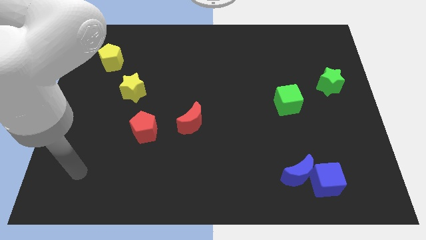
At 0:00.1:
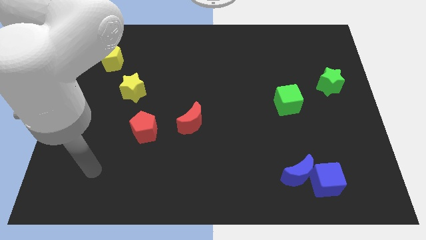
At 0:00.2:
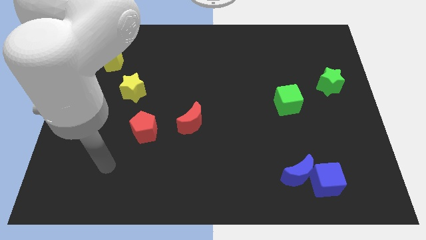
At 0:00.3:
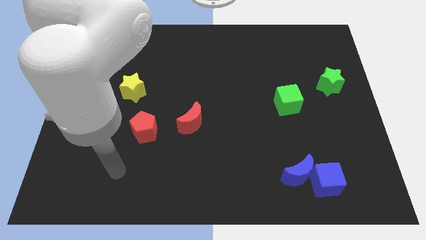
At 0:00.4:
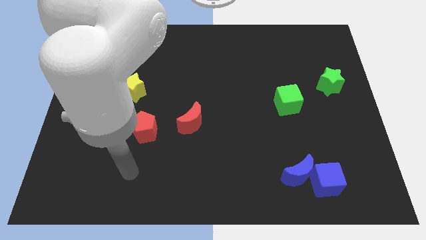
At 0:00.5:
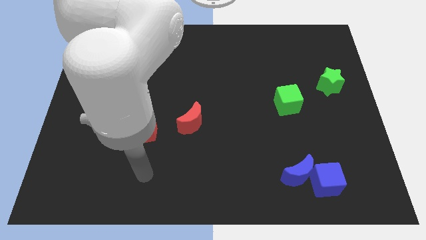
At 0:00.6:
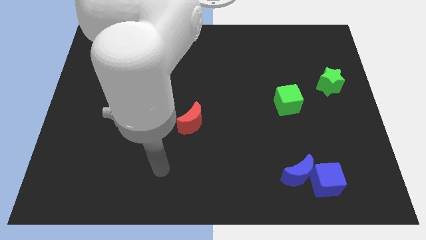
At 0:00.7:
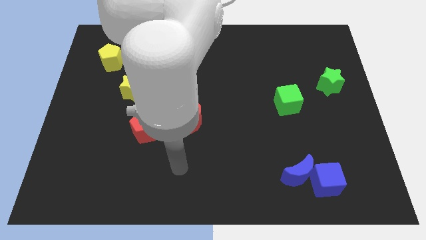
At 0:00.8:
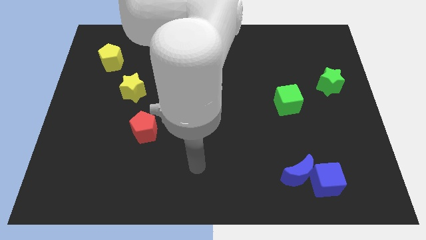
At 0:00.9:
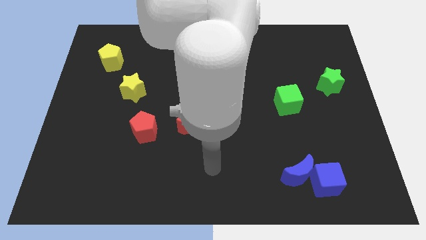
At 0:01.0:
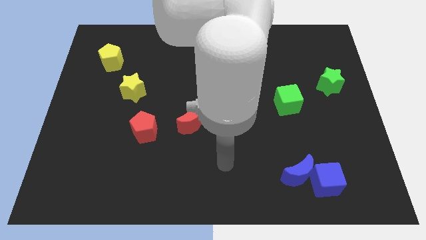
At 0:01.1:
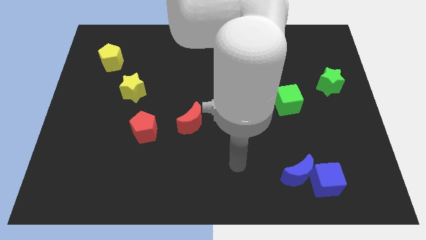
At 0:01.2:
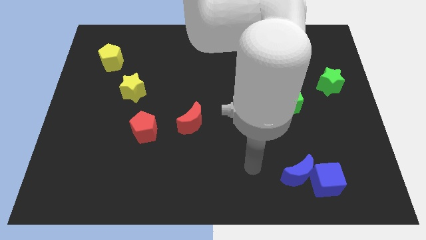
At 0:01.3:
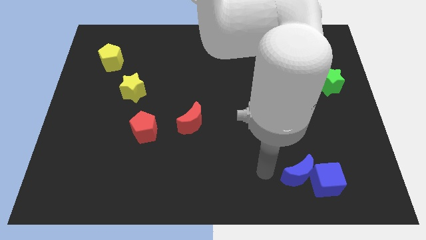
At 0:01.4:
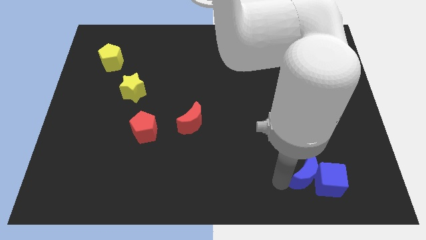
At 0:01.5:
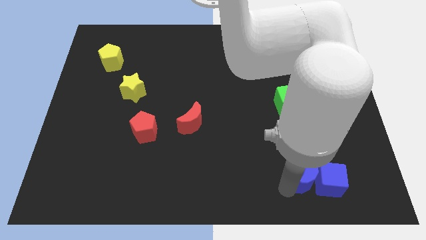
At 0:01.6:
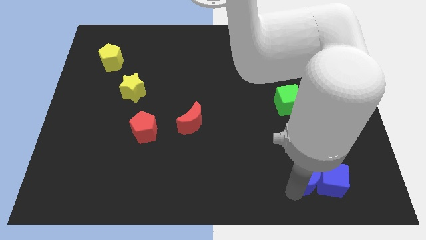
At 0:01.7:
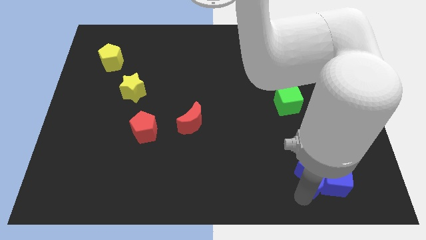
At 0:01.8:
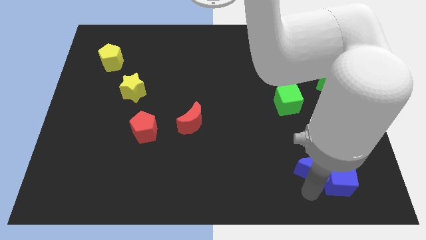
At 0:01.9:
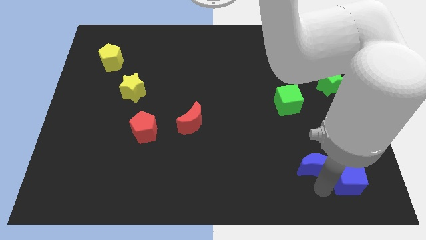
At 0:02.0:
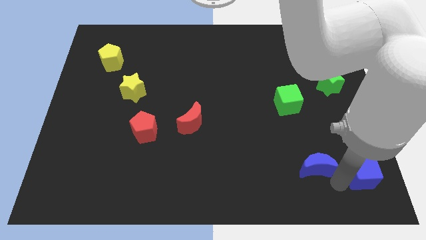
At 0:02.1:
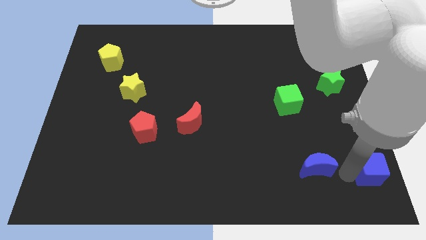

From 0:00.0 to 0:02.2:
move the blue moon away from the blue cube

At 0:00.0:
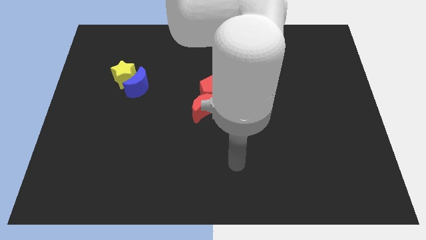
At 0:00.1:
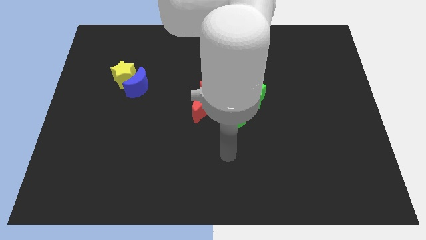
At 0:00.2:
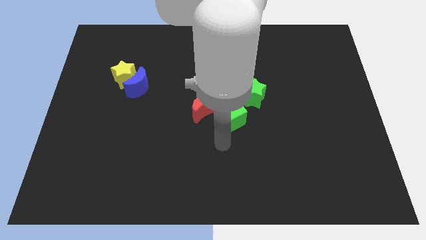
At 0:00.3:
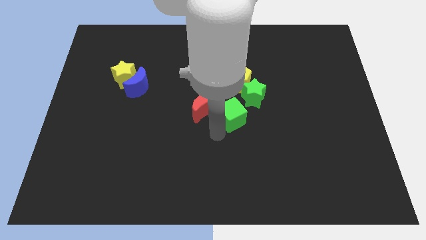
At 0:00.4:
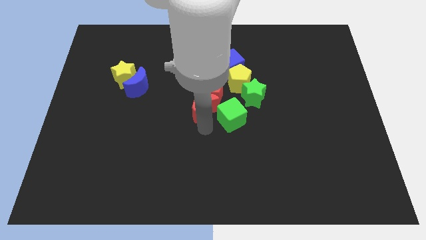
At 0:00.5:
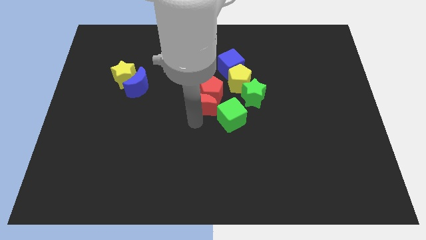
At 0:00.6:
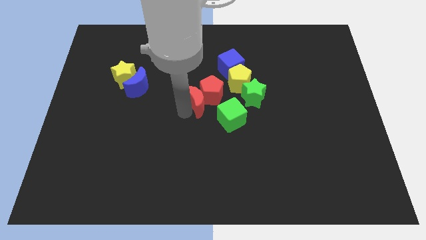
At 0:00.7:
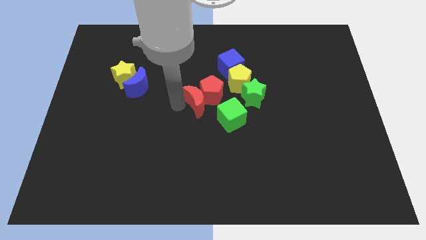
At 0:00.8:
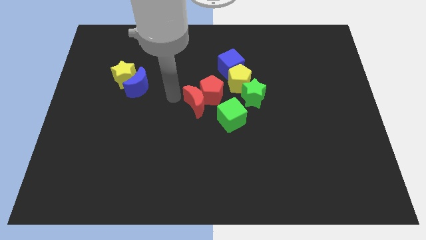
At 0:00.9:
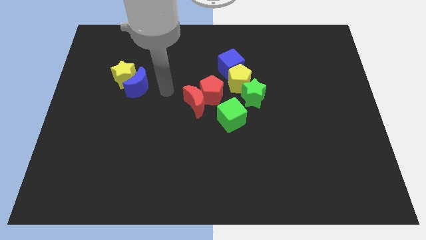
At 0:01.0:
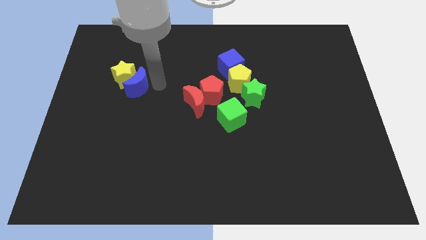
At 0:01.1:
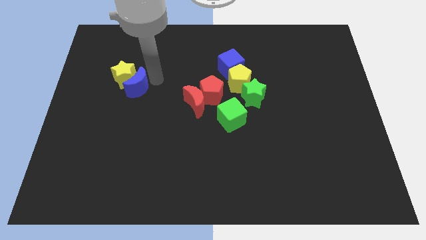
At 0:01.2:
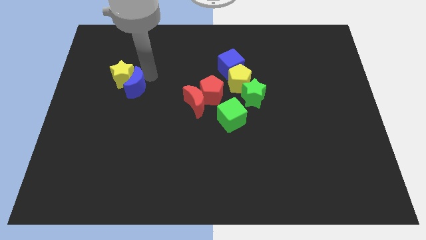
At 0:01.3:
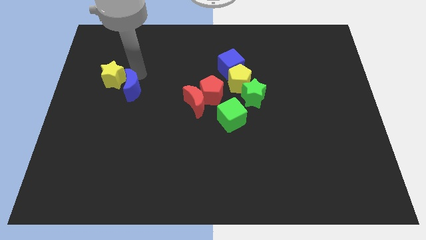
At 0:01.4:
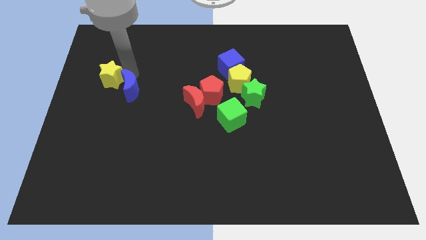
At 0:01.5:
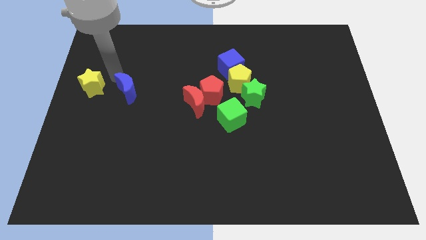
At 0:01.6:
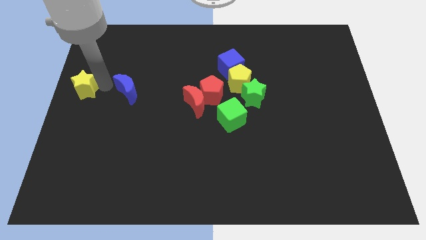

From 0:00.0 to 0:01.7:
move the blue moon away from the yellow star

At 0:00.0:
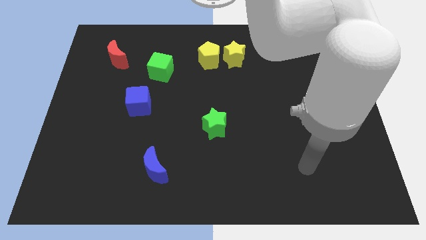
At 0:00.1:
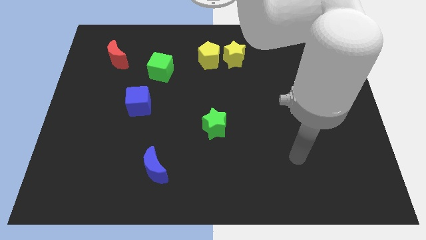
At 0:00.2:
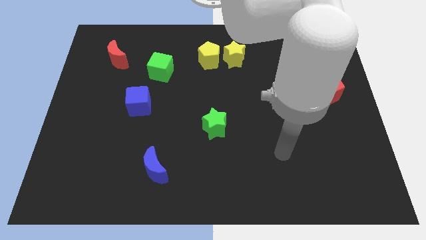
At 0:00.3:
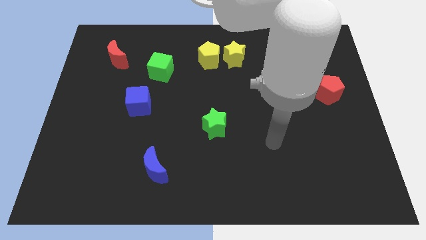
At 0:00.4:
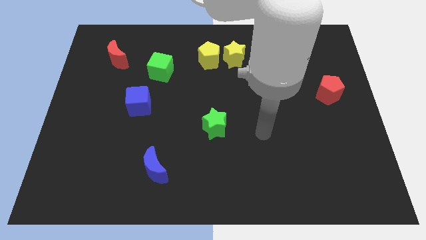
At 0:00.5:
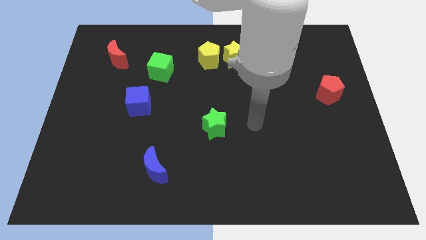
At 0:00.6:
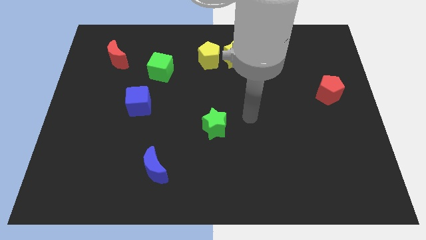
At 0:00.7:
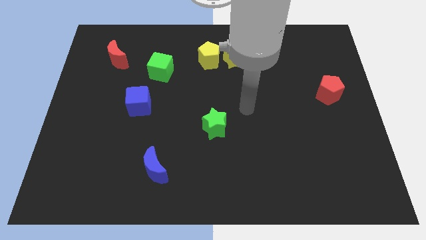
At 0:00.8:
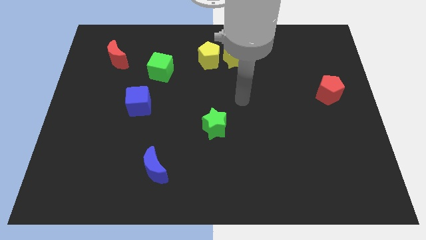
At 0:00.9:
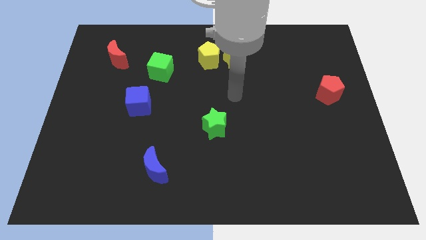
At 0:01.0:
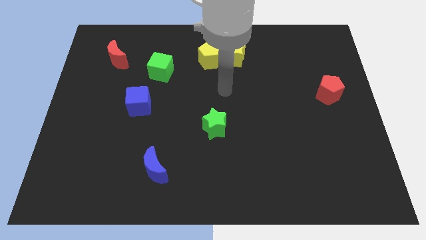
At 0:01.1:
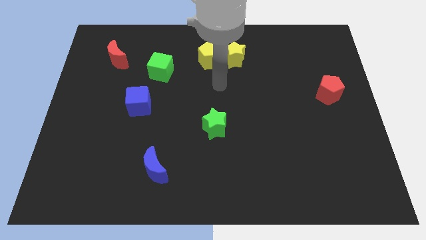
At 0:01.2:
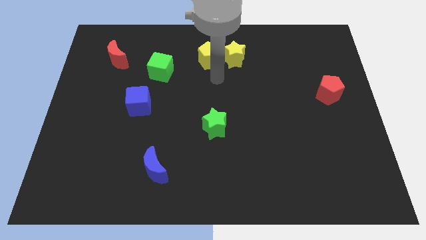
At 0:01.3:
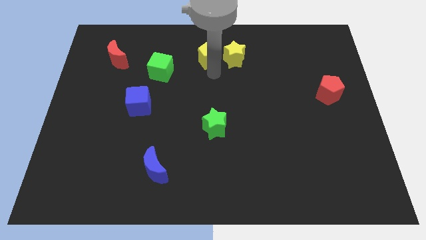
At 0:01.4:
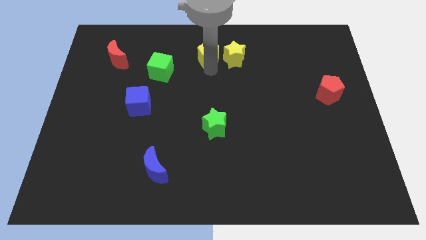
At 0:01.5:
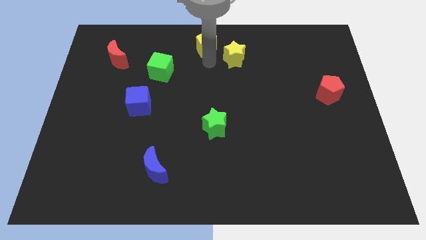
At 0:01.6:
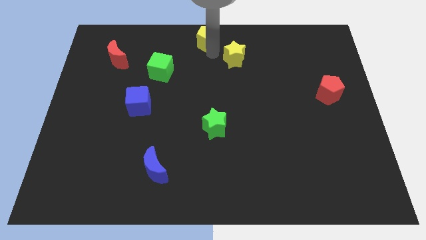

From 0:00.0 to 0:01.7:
pull the yellow star apart from the yellow pentagon

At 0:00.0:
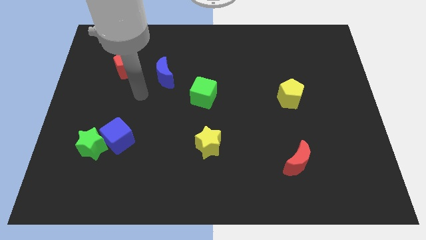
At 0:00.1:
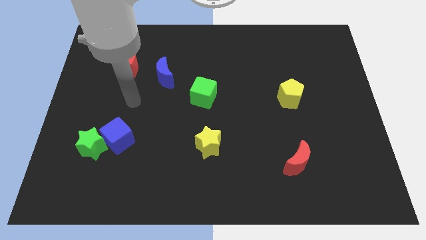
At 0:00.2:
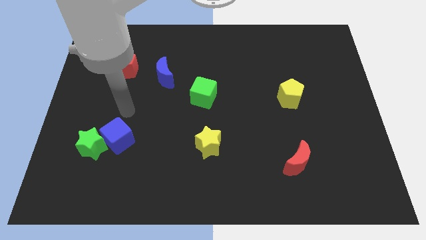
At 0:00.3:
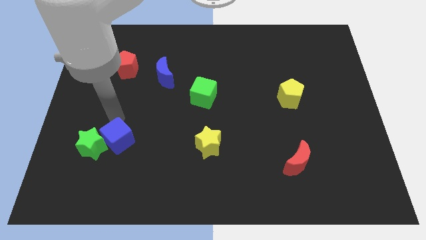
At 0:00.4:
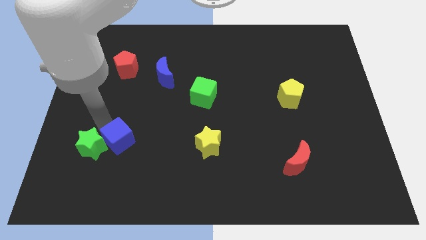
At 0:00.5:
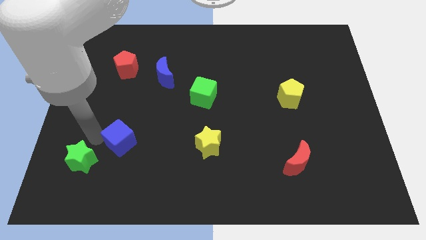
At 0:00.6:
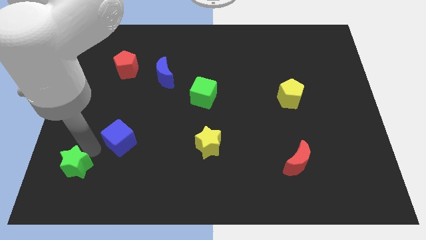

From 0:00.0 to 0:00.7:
move the blue cube away from the green star

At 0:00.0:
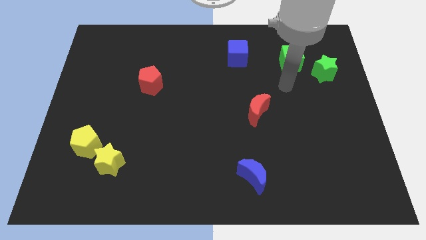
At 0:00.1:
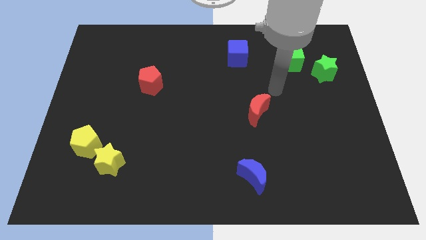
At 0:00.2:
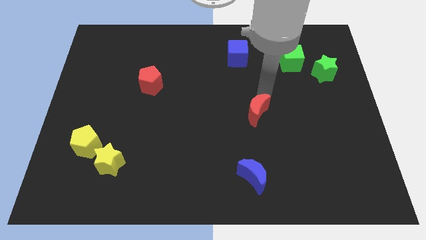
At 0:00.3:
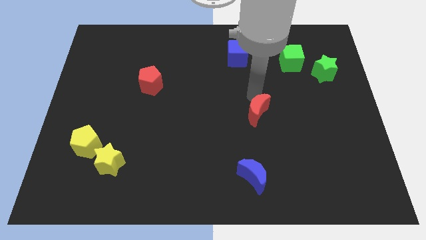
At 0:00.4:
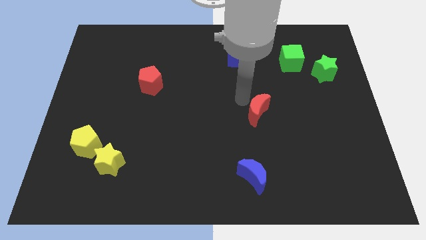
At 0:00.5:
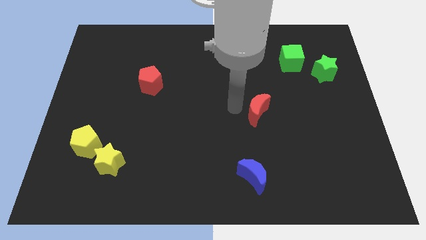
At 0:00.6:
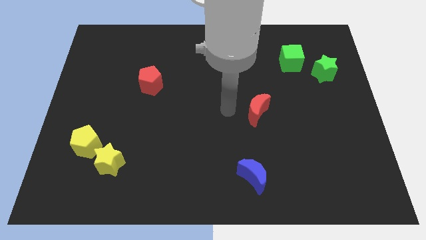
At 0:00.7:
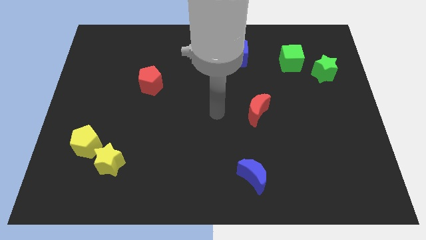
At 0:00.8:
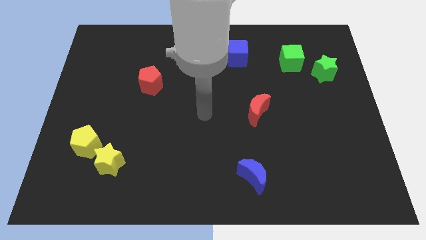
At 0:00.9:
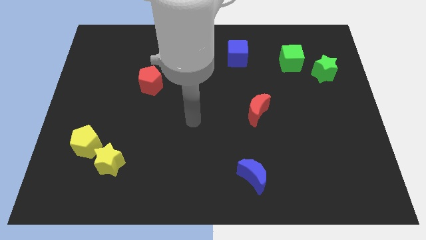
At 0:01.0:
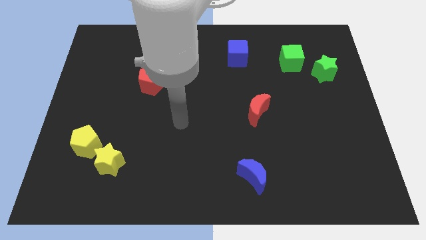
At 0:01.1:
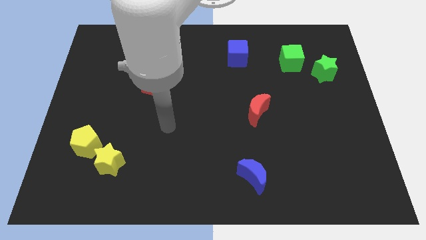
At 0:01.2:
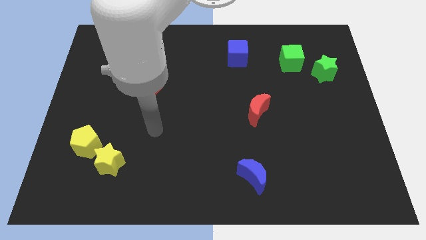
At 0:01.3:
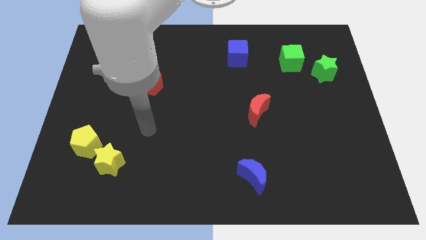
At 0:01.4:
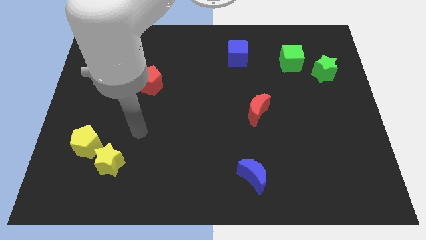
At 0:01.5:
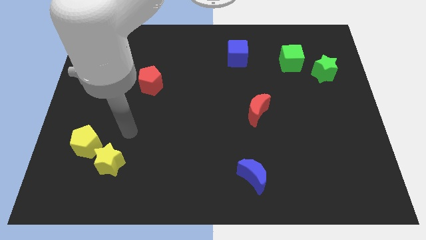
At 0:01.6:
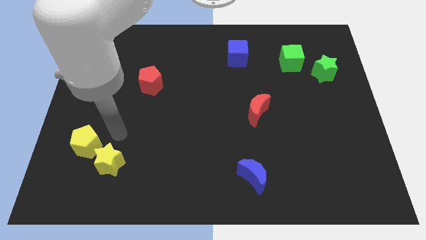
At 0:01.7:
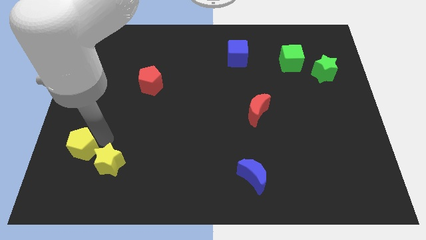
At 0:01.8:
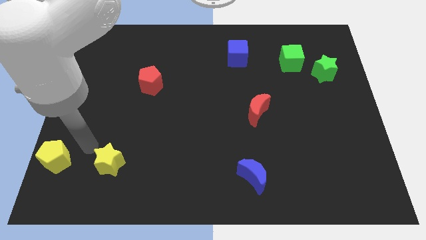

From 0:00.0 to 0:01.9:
move the yellow star away from the yellow pentagon

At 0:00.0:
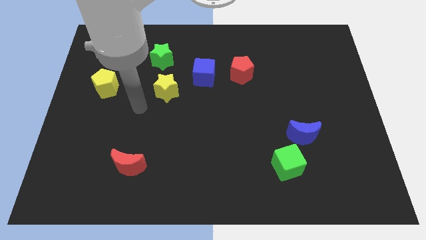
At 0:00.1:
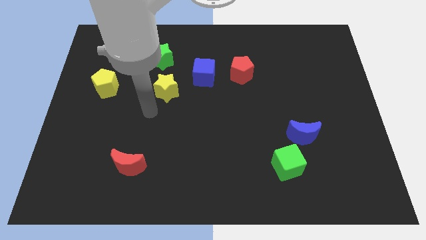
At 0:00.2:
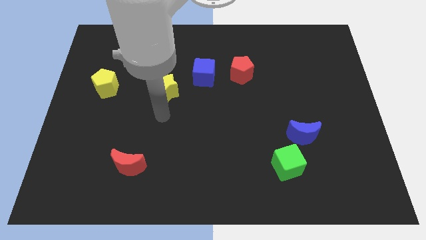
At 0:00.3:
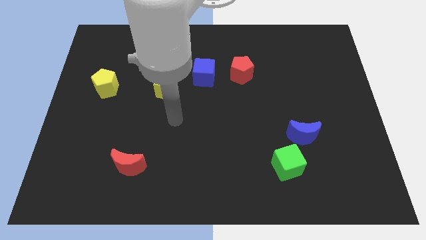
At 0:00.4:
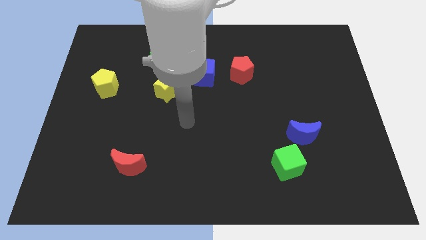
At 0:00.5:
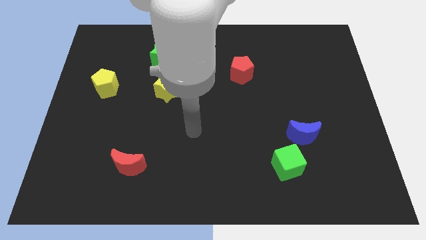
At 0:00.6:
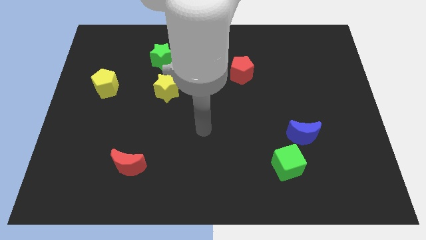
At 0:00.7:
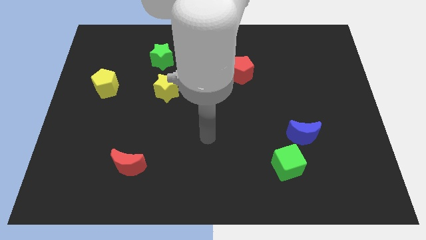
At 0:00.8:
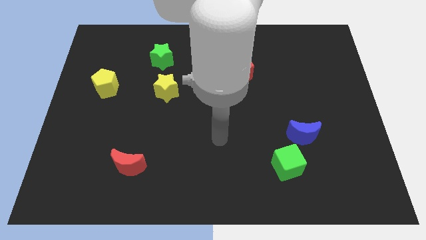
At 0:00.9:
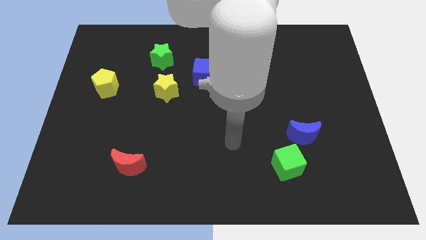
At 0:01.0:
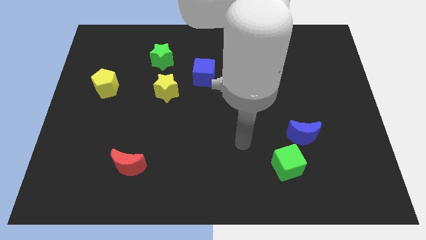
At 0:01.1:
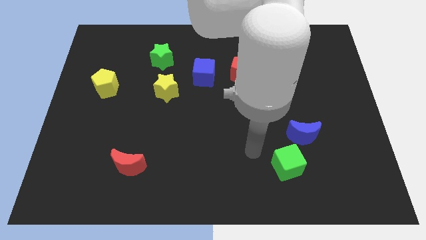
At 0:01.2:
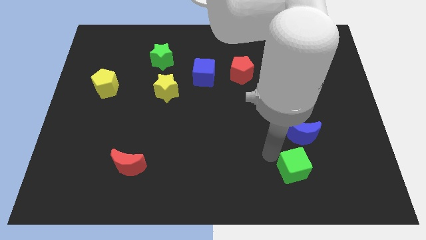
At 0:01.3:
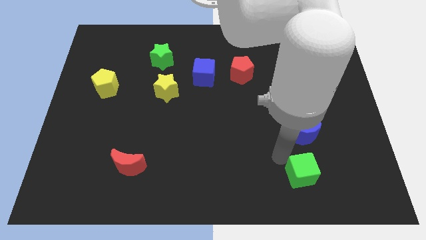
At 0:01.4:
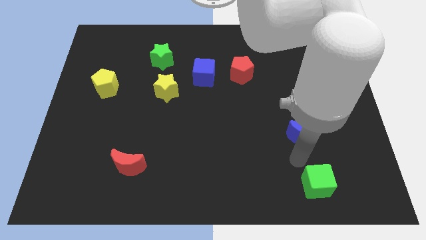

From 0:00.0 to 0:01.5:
move the blue moon away from the green cube
